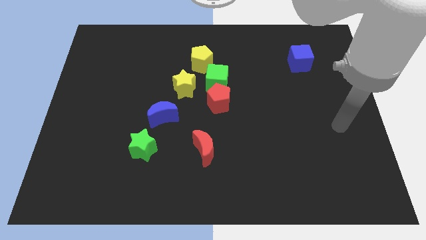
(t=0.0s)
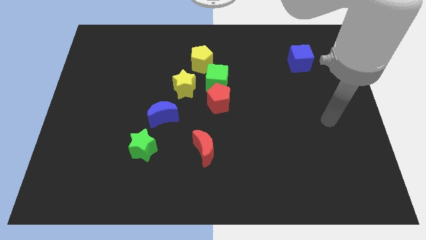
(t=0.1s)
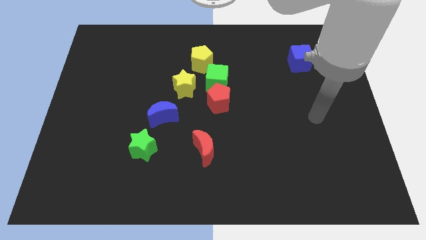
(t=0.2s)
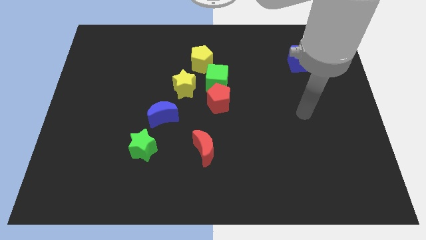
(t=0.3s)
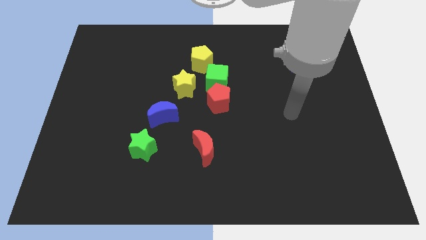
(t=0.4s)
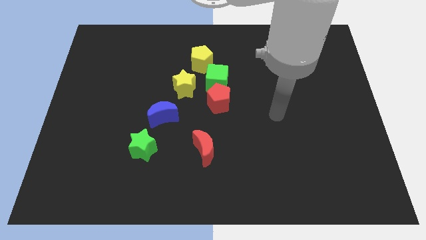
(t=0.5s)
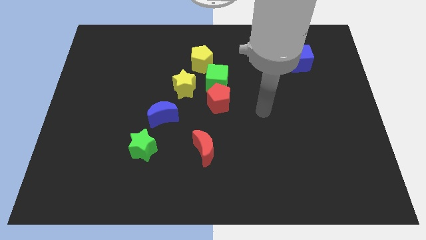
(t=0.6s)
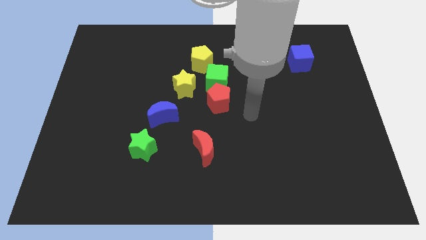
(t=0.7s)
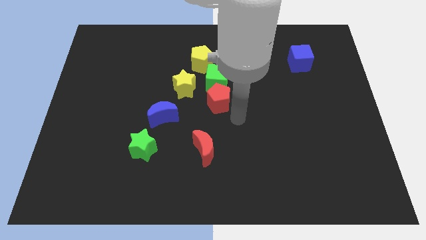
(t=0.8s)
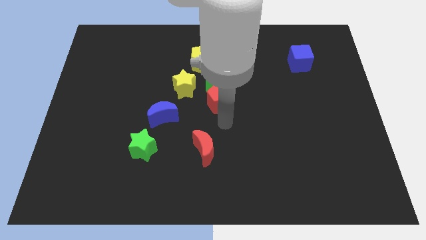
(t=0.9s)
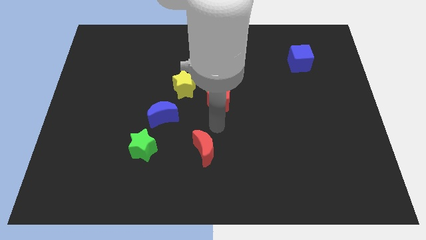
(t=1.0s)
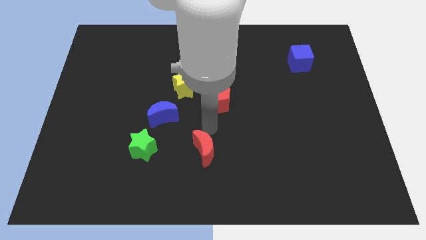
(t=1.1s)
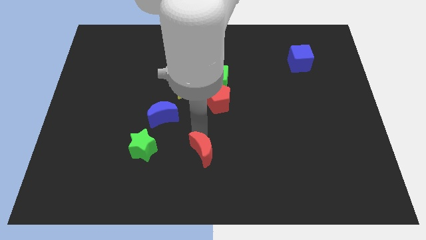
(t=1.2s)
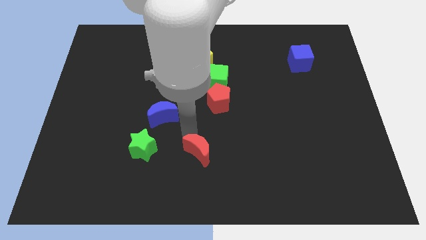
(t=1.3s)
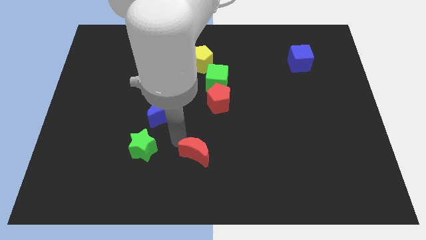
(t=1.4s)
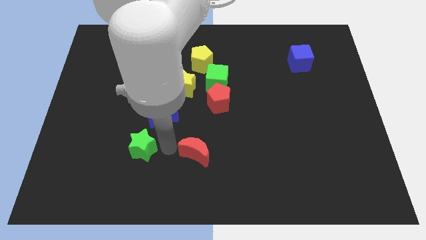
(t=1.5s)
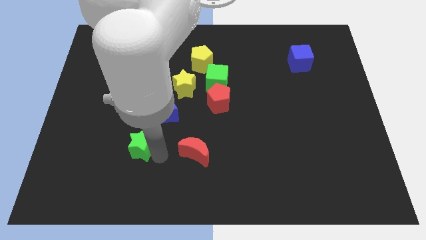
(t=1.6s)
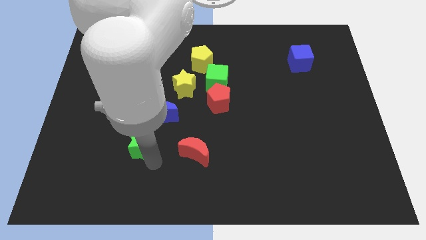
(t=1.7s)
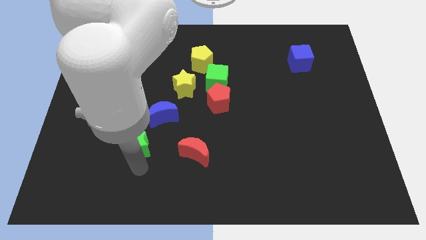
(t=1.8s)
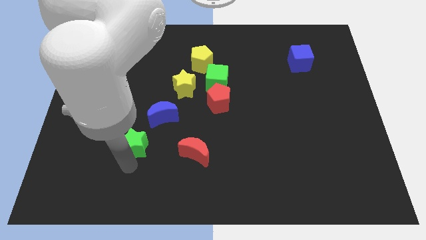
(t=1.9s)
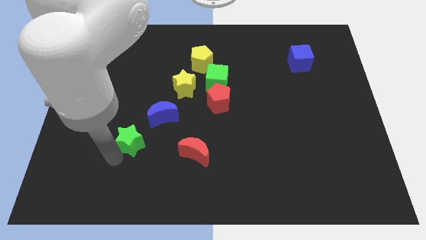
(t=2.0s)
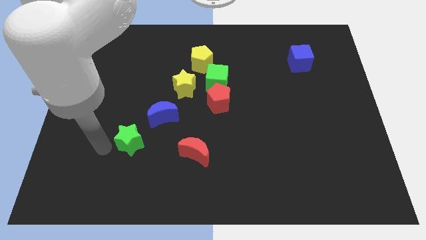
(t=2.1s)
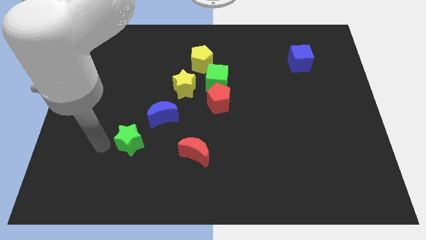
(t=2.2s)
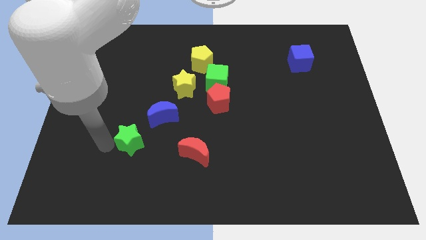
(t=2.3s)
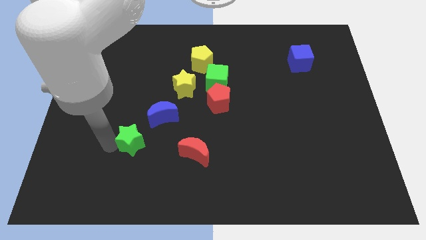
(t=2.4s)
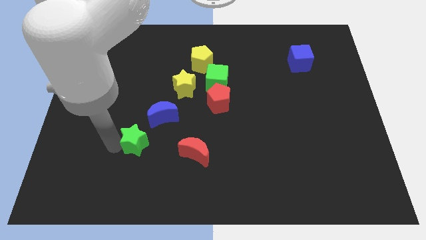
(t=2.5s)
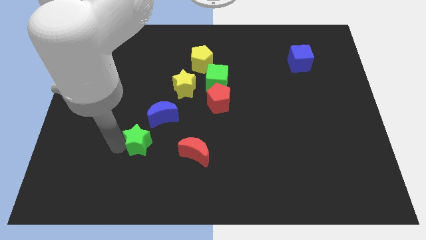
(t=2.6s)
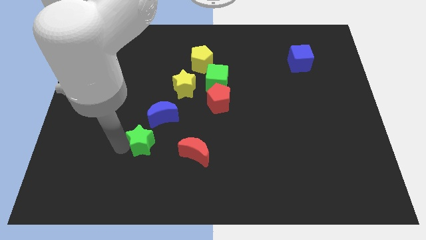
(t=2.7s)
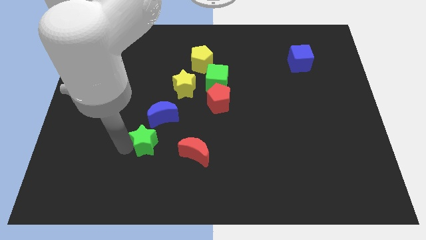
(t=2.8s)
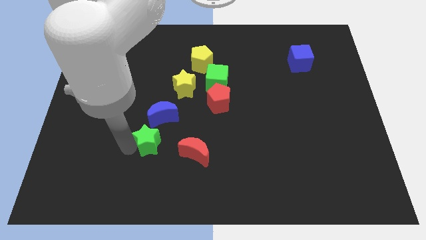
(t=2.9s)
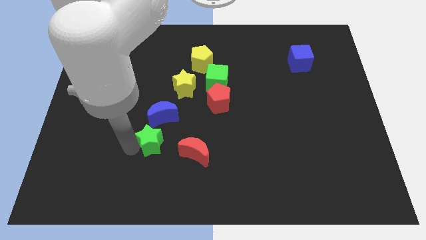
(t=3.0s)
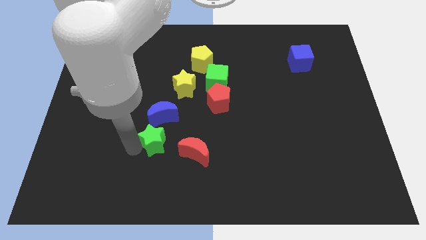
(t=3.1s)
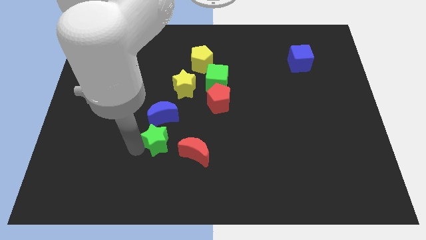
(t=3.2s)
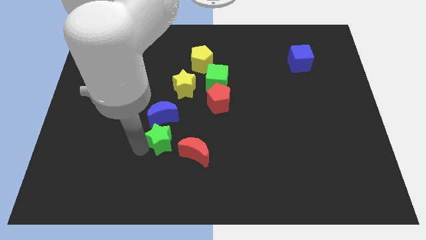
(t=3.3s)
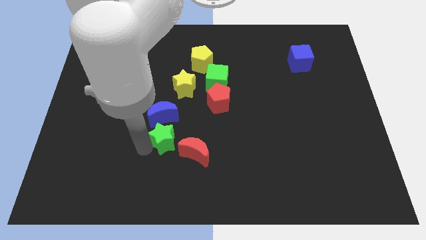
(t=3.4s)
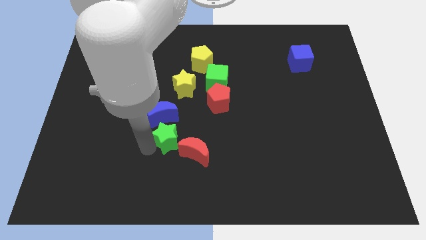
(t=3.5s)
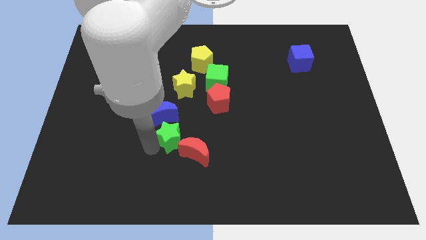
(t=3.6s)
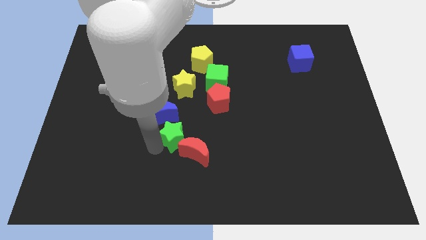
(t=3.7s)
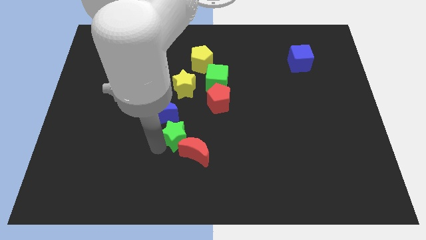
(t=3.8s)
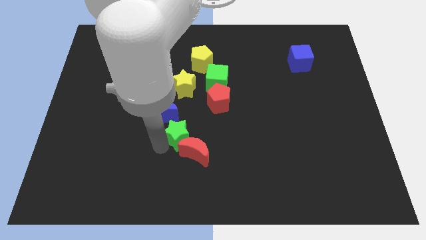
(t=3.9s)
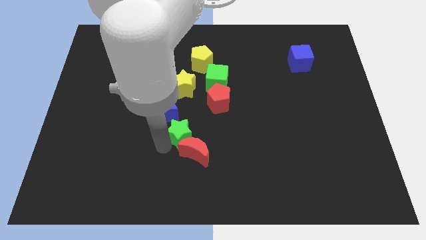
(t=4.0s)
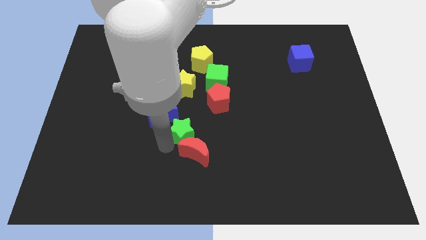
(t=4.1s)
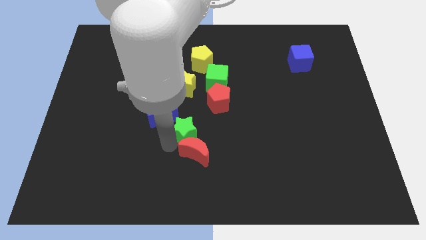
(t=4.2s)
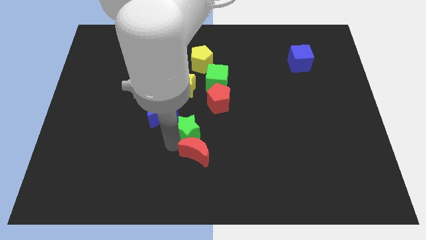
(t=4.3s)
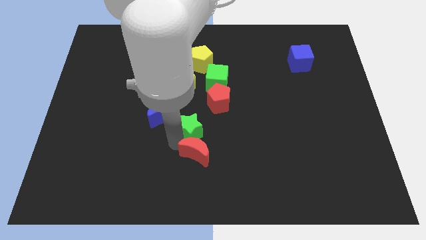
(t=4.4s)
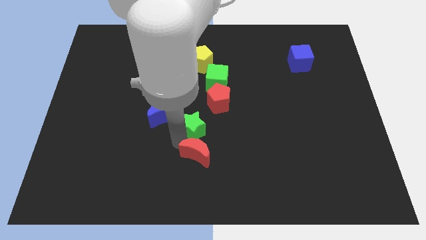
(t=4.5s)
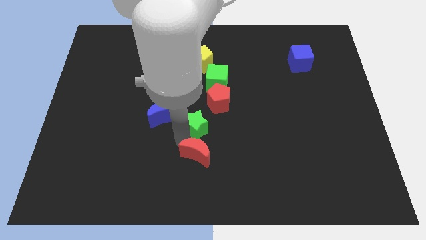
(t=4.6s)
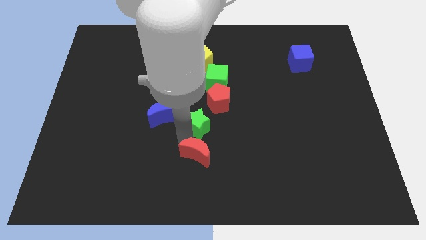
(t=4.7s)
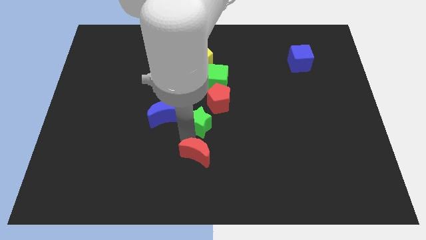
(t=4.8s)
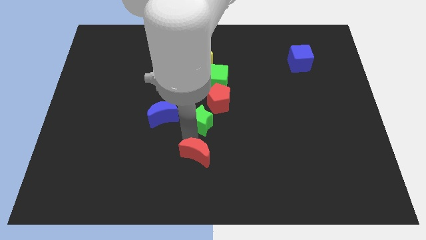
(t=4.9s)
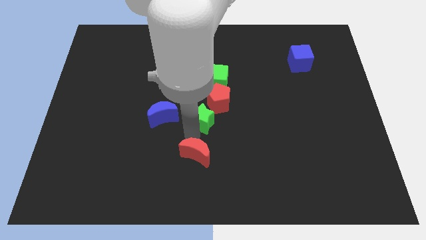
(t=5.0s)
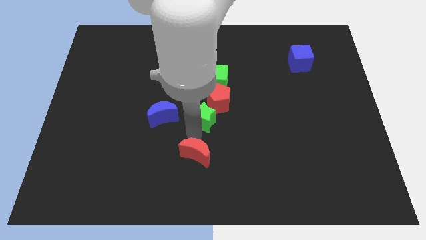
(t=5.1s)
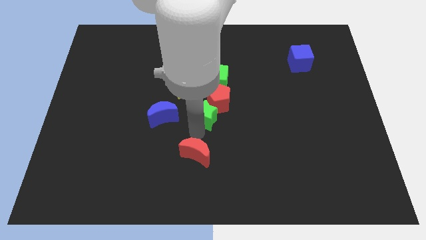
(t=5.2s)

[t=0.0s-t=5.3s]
push the green star to the red pentagon

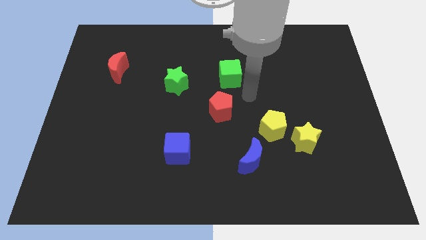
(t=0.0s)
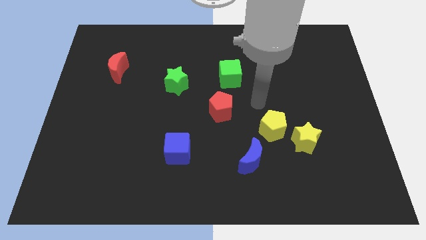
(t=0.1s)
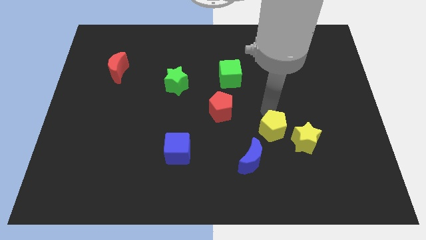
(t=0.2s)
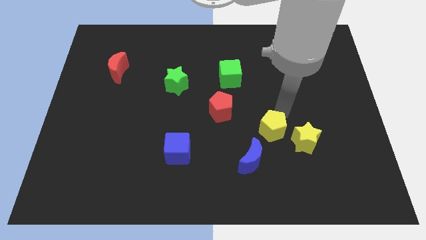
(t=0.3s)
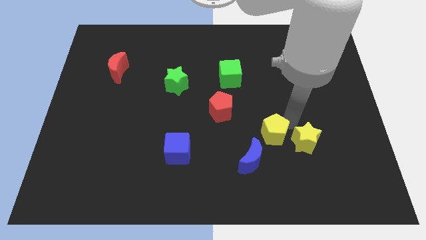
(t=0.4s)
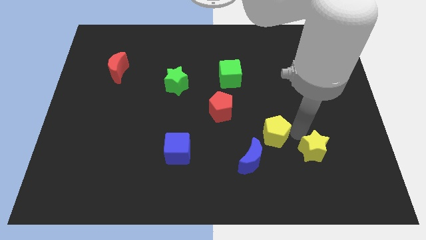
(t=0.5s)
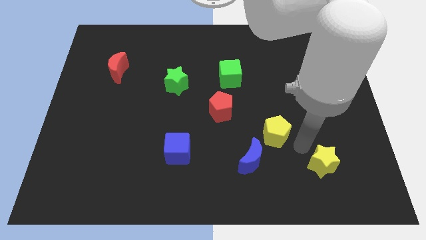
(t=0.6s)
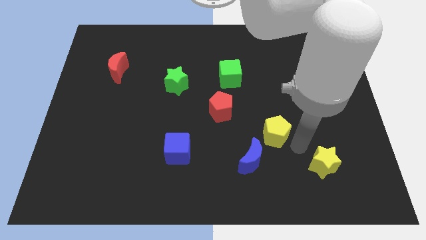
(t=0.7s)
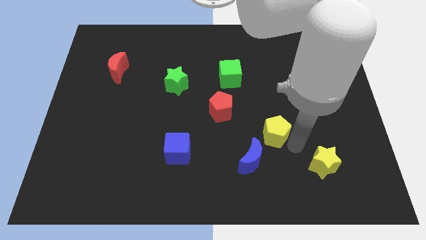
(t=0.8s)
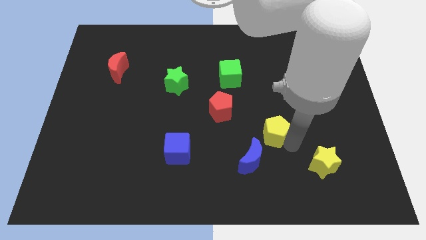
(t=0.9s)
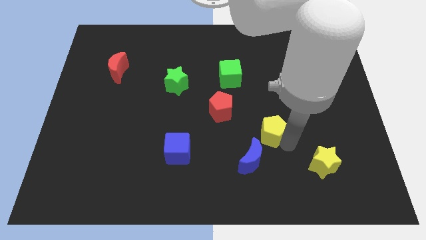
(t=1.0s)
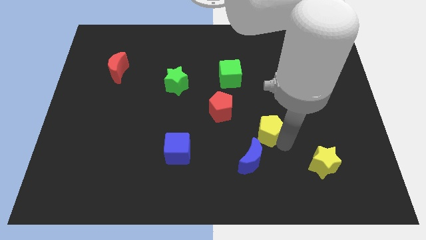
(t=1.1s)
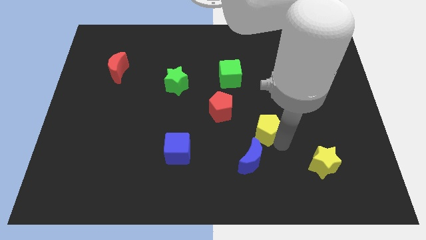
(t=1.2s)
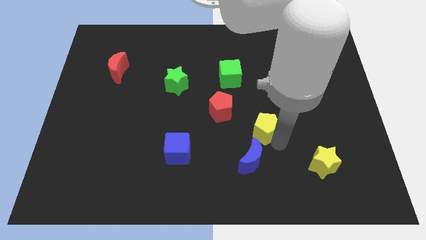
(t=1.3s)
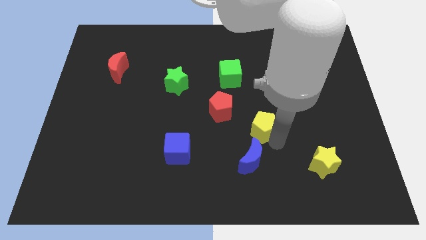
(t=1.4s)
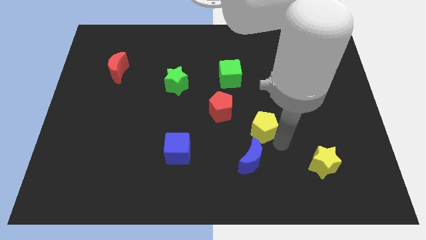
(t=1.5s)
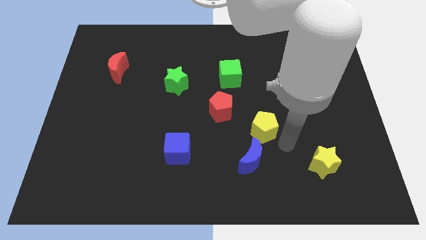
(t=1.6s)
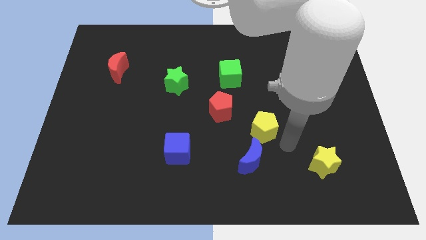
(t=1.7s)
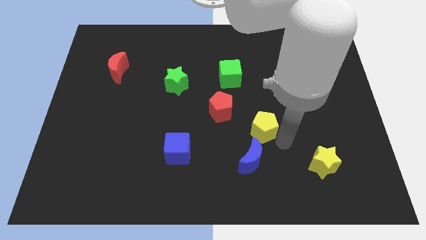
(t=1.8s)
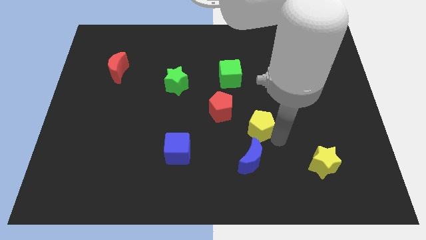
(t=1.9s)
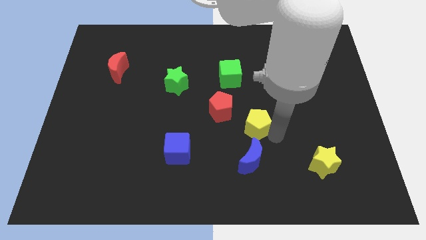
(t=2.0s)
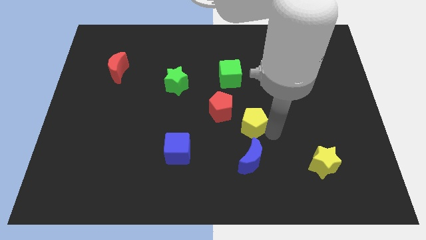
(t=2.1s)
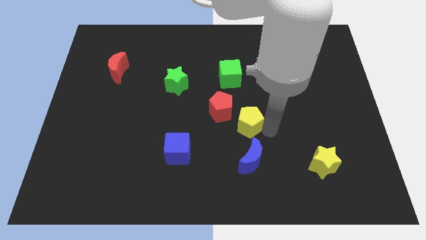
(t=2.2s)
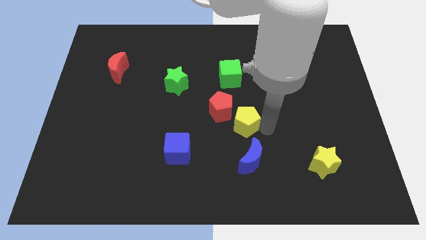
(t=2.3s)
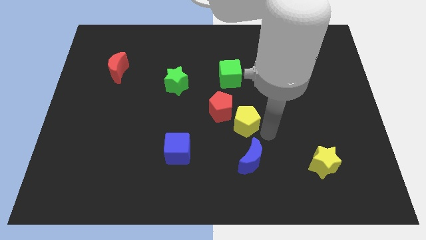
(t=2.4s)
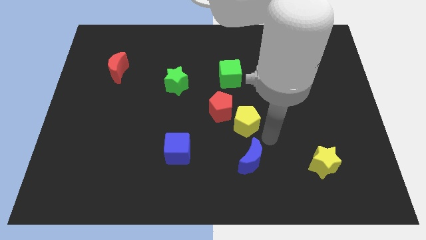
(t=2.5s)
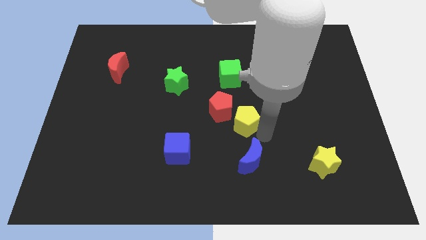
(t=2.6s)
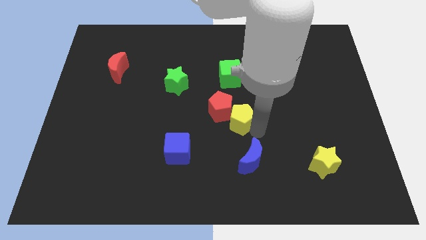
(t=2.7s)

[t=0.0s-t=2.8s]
slide the yellow pentagon close to the red pentagon
